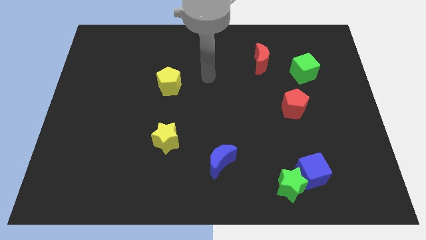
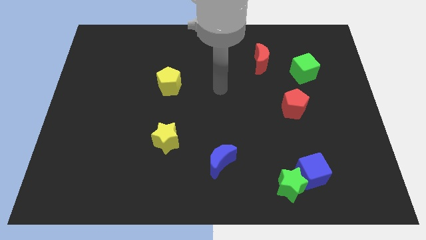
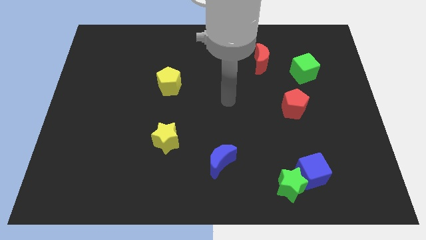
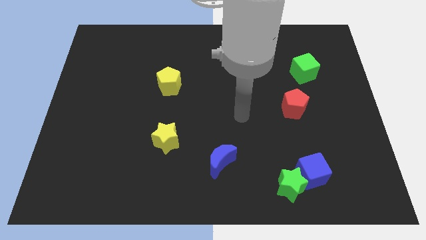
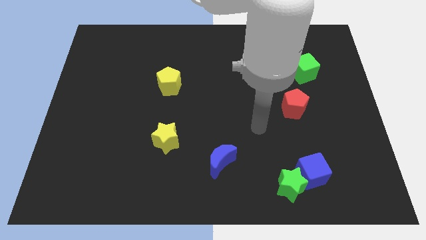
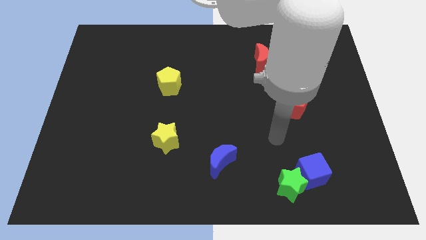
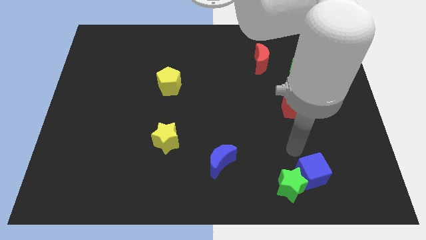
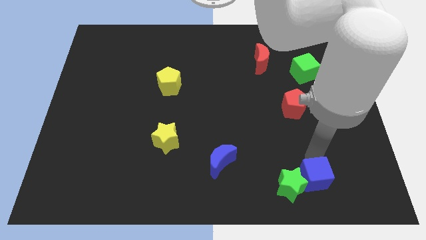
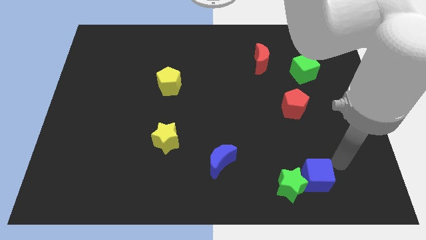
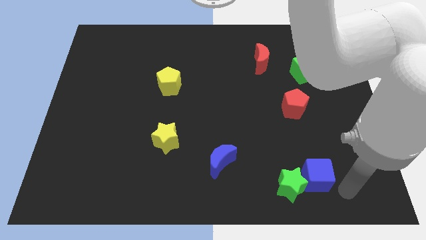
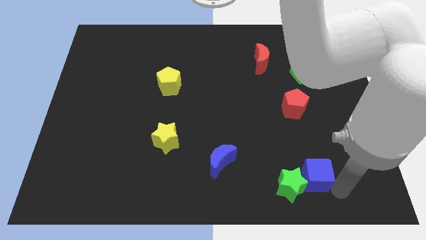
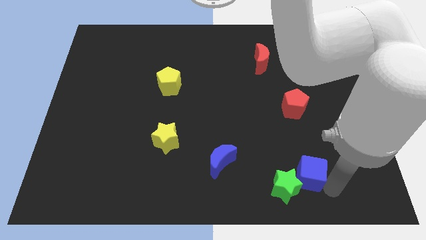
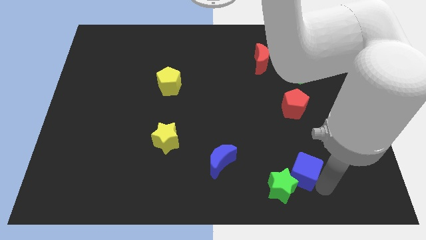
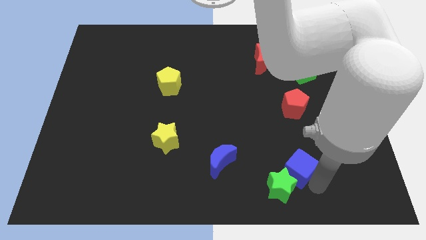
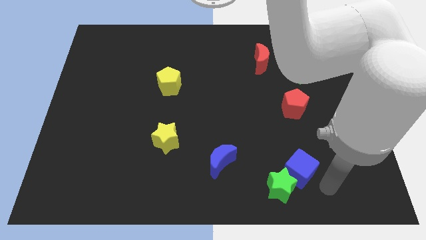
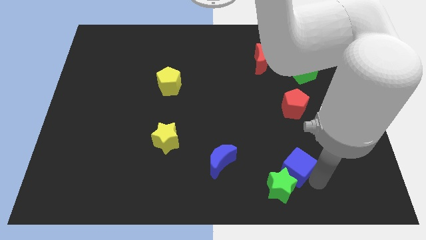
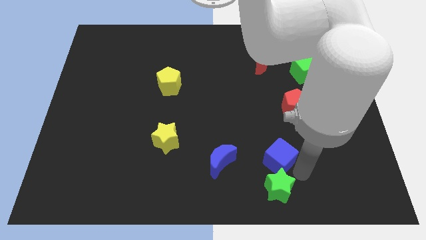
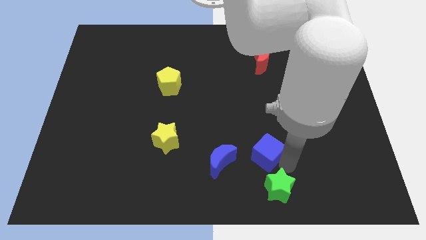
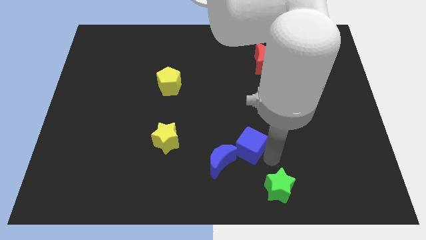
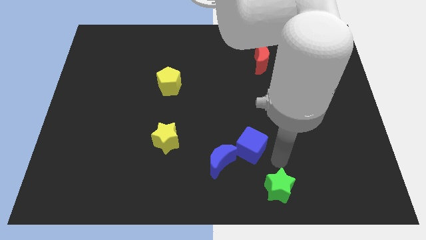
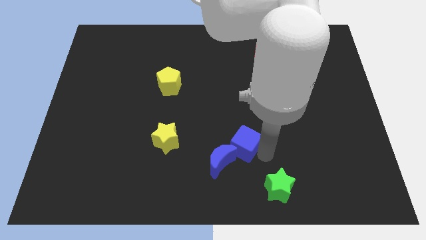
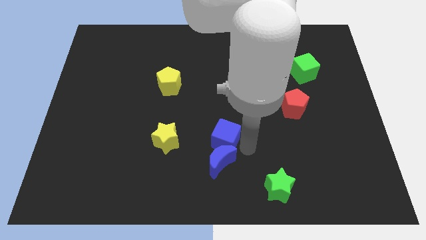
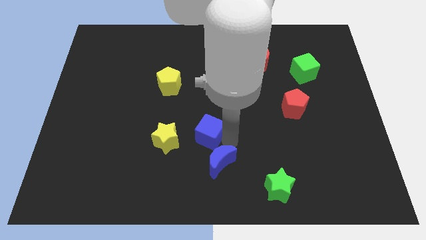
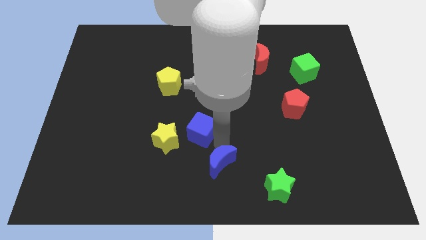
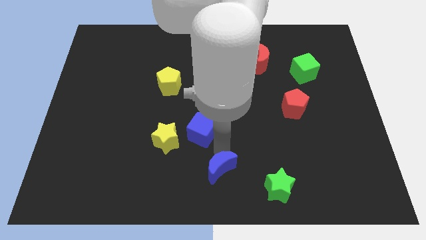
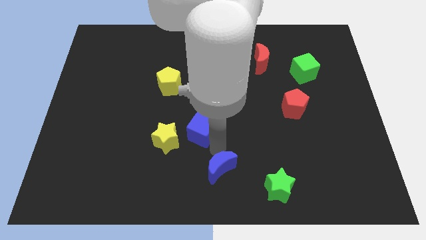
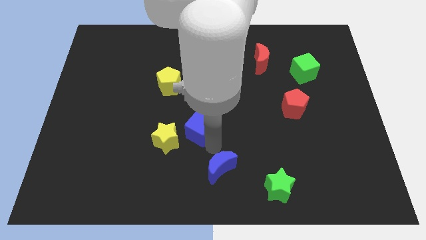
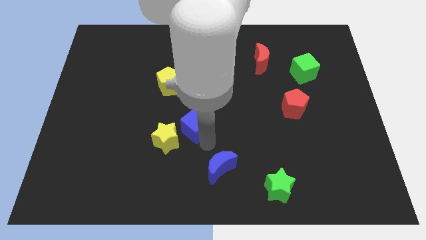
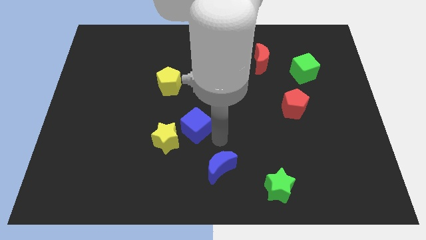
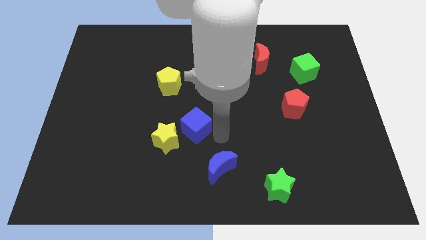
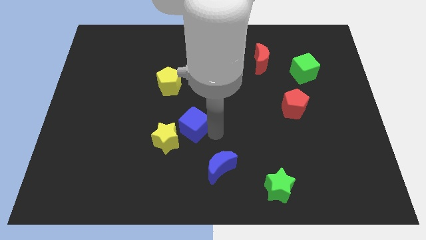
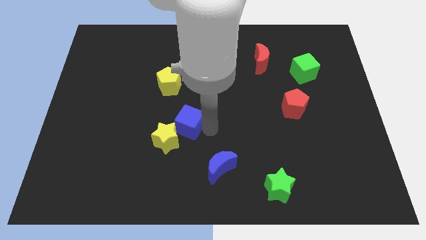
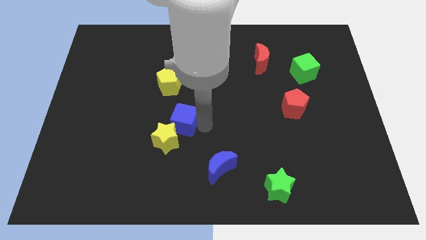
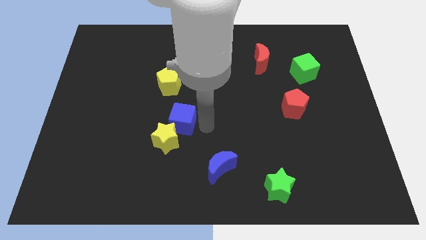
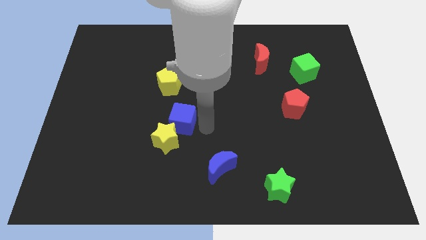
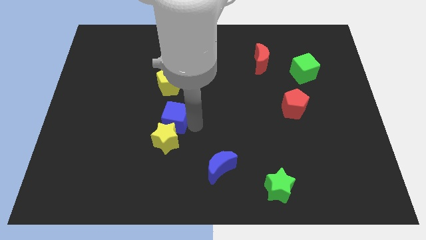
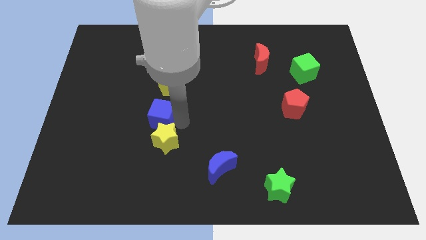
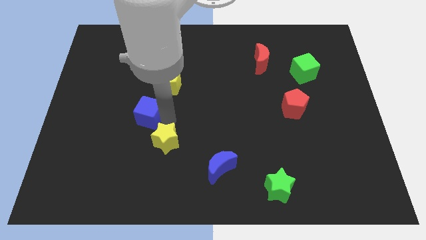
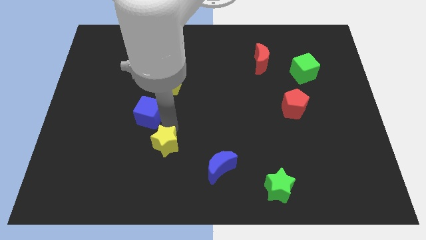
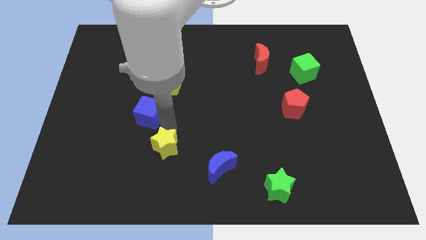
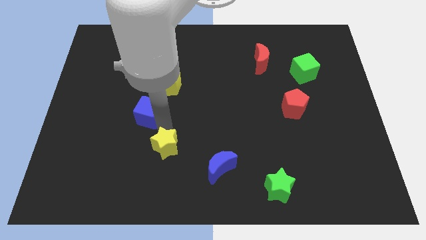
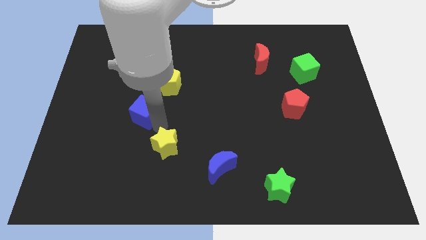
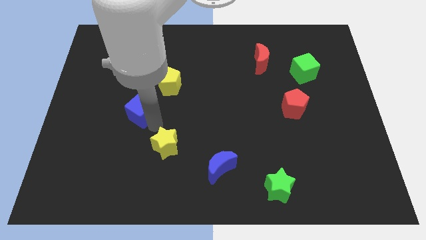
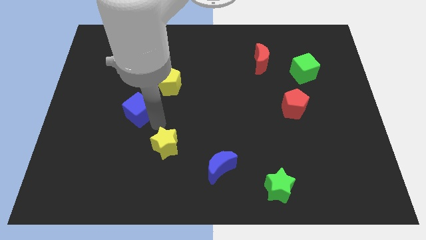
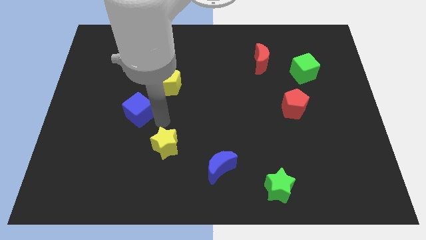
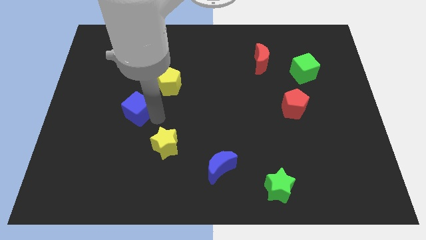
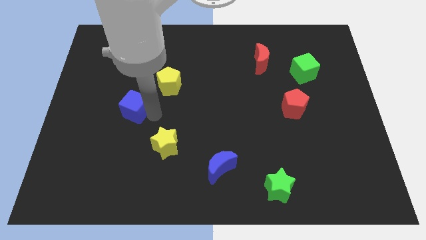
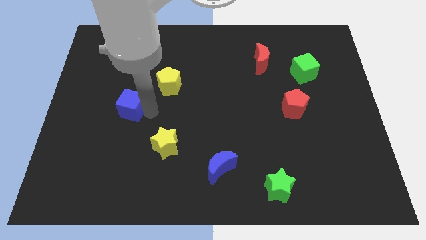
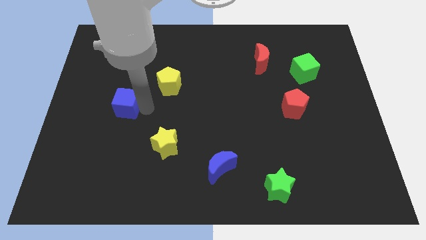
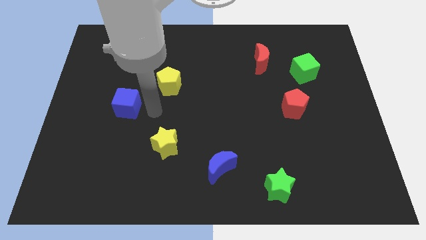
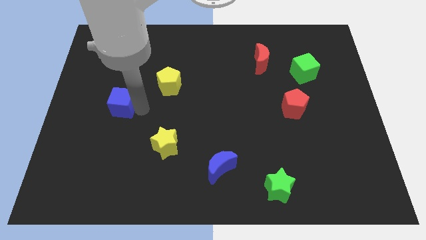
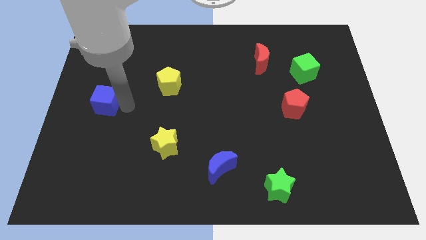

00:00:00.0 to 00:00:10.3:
put the blue cube to the center left
